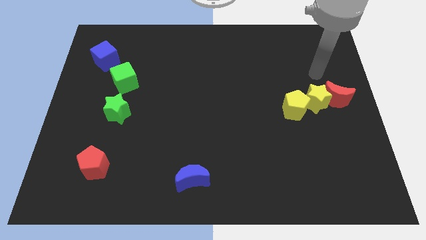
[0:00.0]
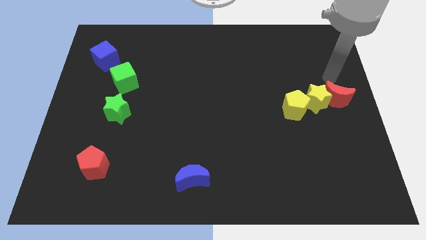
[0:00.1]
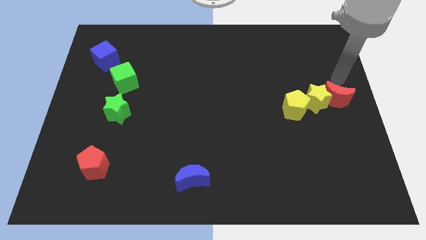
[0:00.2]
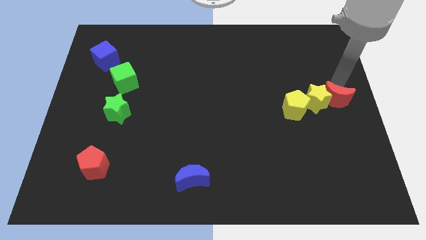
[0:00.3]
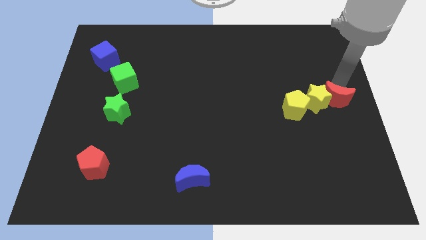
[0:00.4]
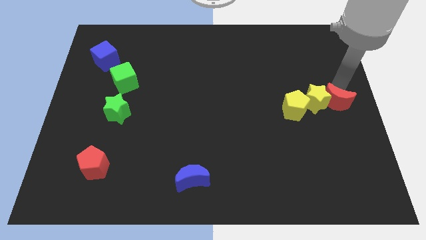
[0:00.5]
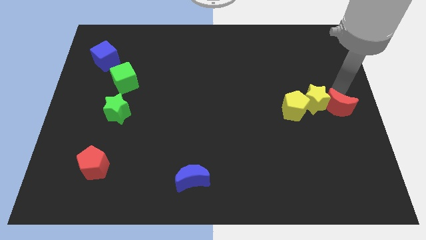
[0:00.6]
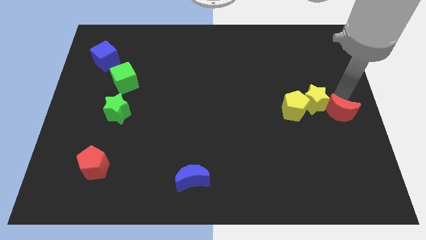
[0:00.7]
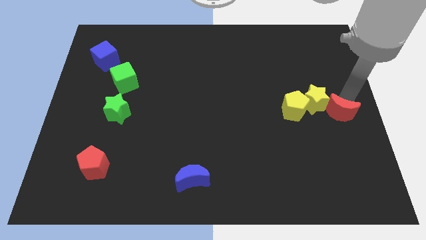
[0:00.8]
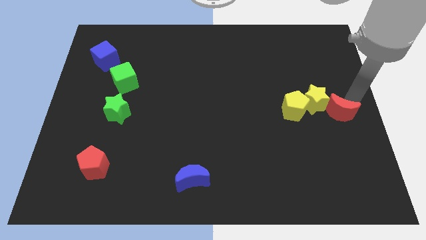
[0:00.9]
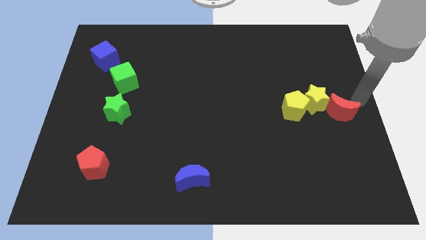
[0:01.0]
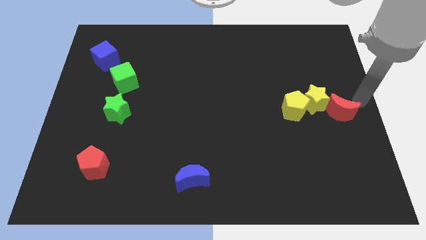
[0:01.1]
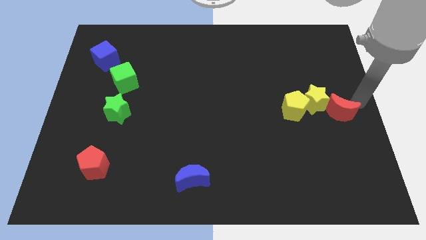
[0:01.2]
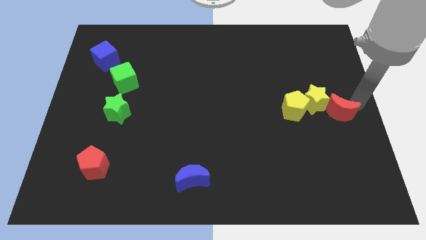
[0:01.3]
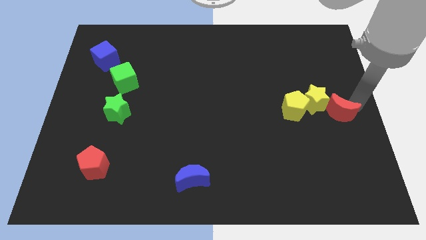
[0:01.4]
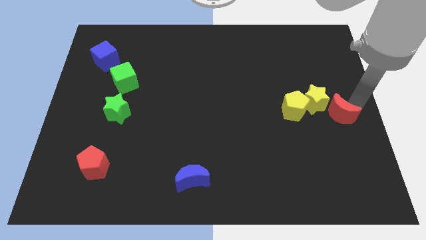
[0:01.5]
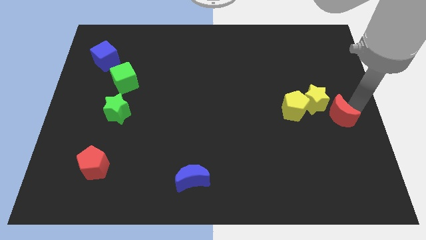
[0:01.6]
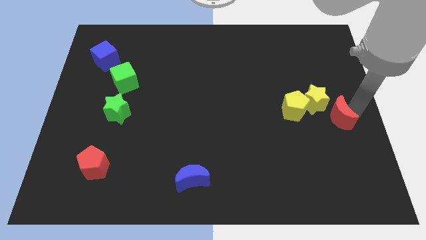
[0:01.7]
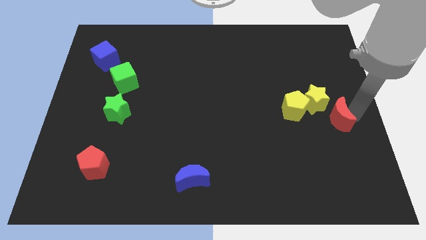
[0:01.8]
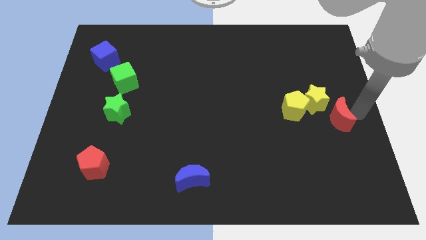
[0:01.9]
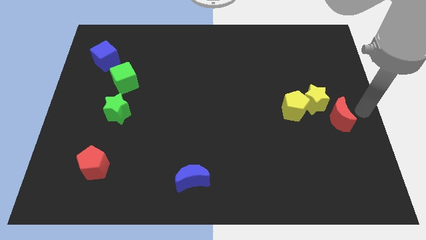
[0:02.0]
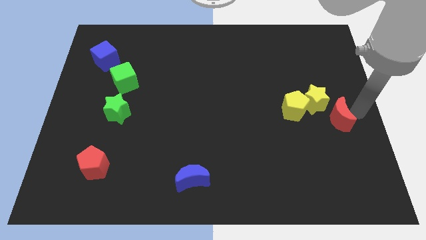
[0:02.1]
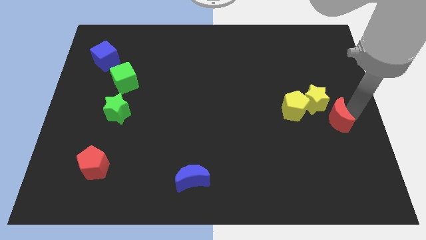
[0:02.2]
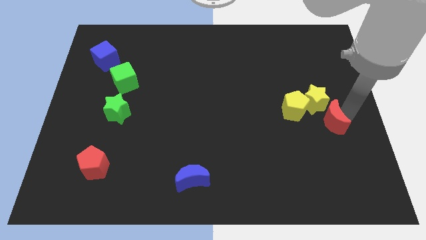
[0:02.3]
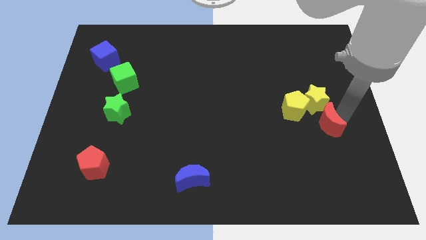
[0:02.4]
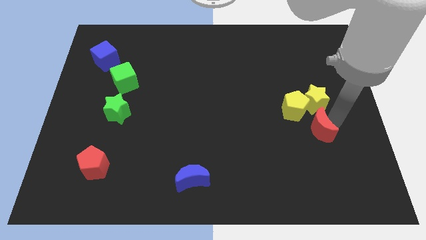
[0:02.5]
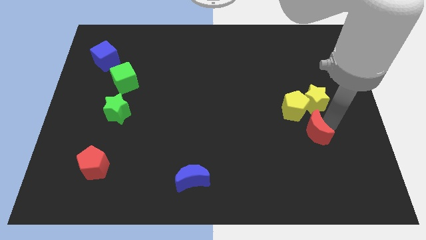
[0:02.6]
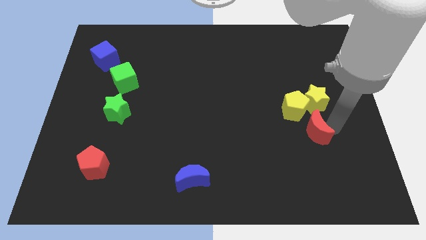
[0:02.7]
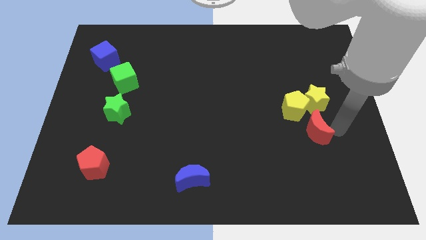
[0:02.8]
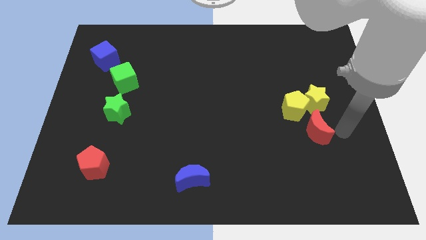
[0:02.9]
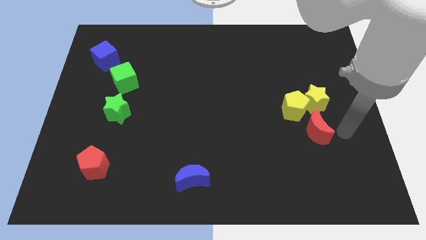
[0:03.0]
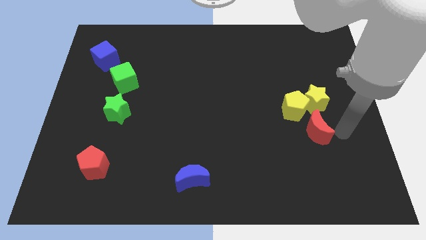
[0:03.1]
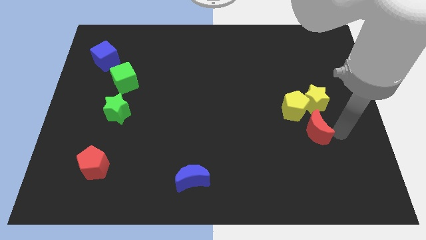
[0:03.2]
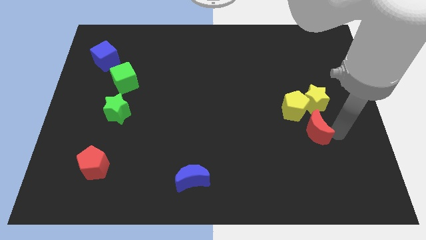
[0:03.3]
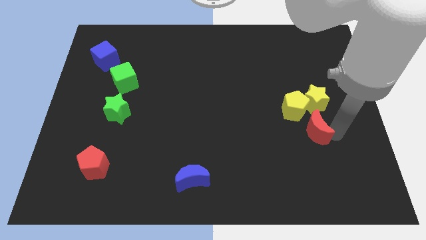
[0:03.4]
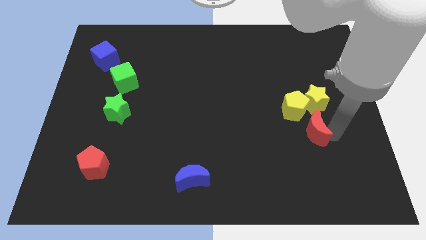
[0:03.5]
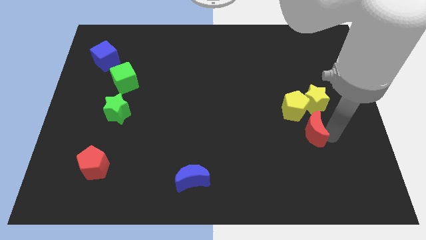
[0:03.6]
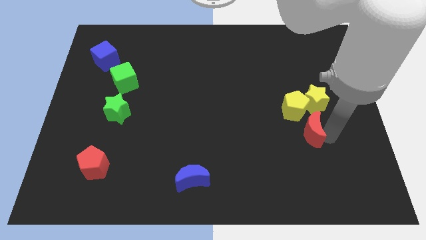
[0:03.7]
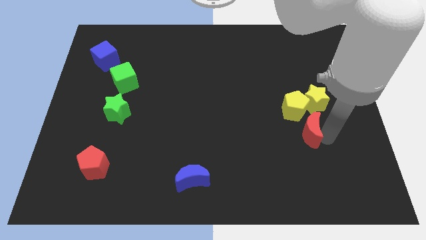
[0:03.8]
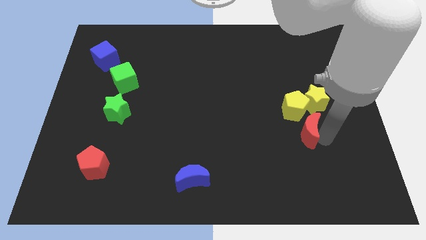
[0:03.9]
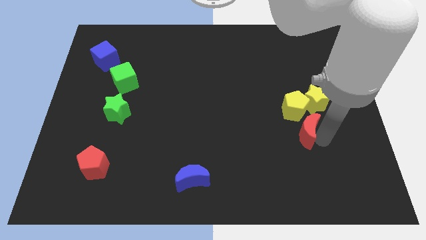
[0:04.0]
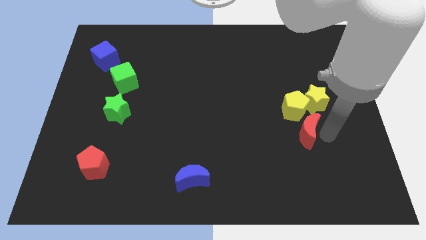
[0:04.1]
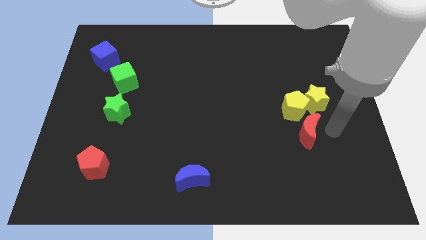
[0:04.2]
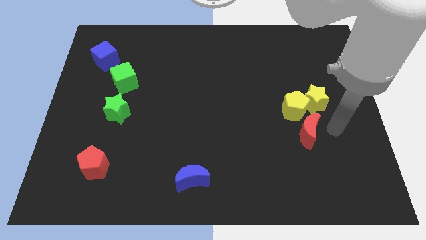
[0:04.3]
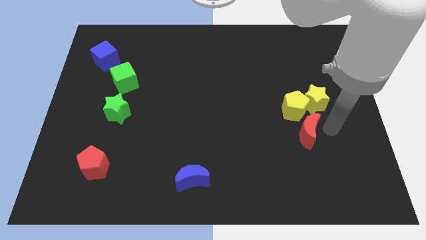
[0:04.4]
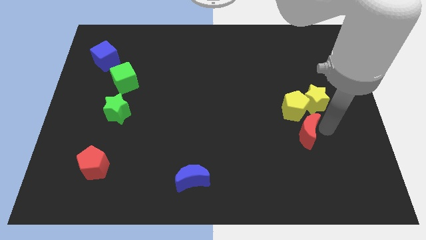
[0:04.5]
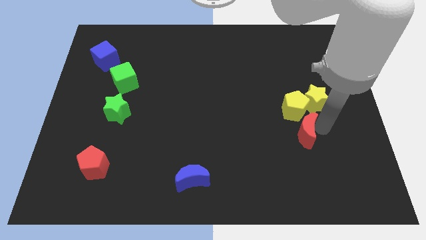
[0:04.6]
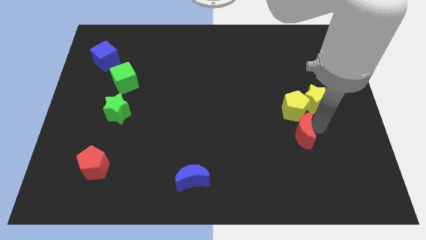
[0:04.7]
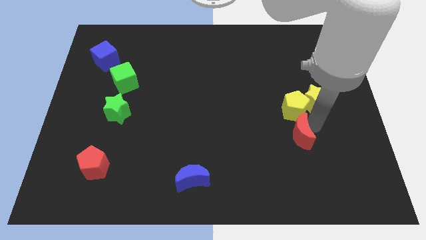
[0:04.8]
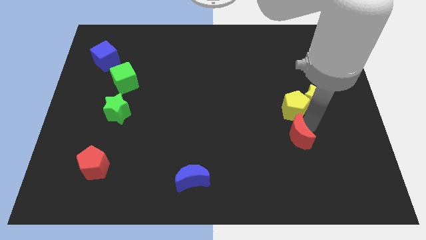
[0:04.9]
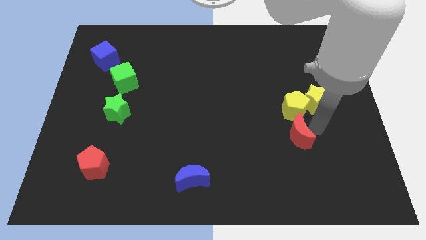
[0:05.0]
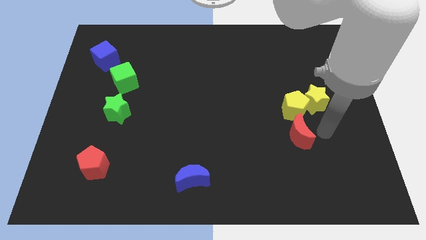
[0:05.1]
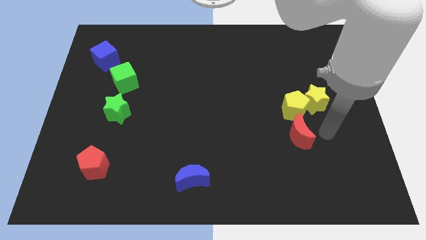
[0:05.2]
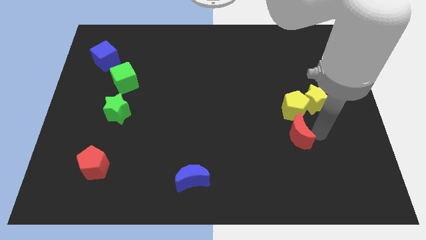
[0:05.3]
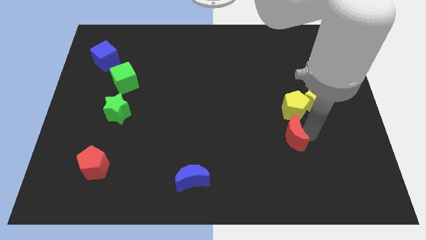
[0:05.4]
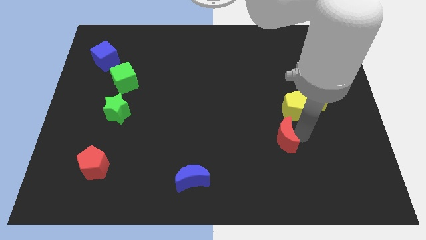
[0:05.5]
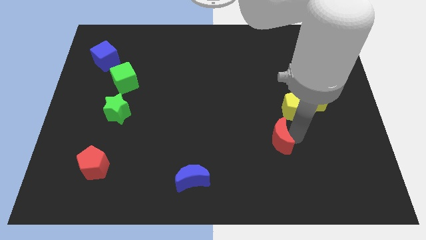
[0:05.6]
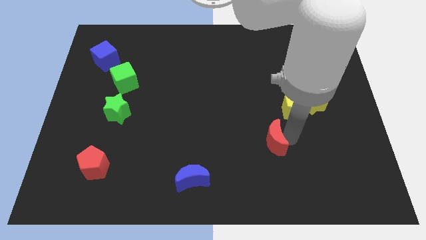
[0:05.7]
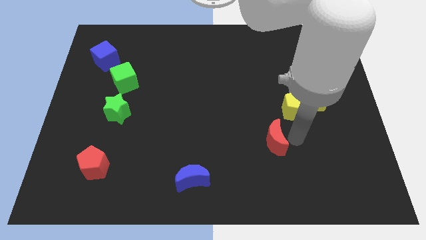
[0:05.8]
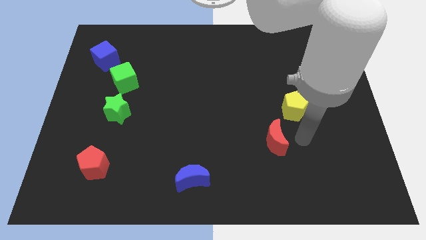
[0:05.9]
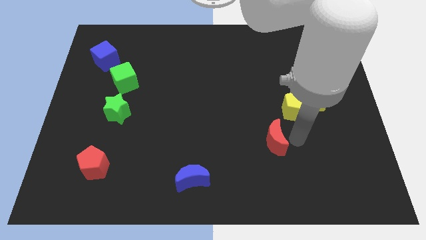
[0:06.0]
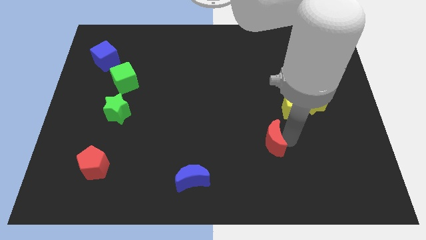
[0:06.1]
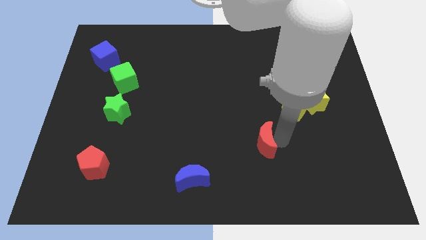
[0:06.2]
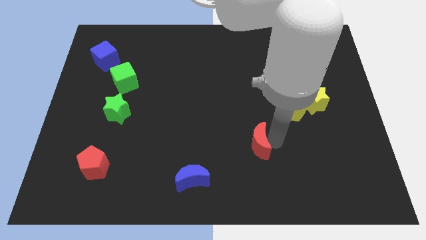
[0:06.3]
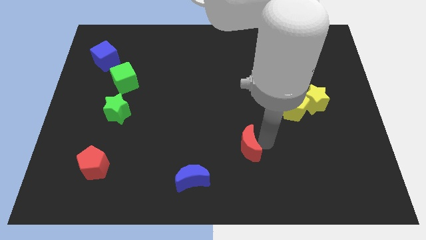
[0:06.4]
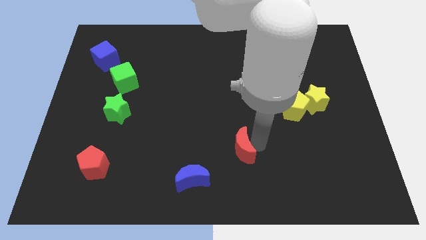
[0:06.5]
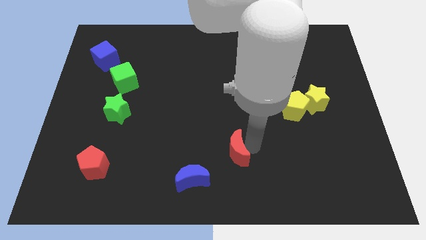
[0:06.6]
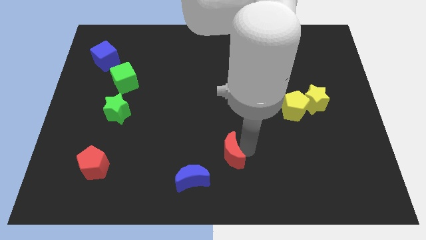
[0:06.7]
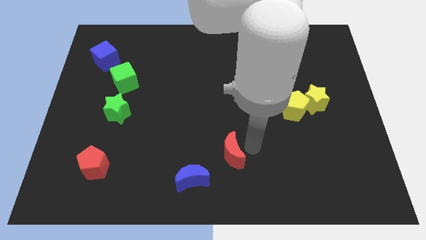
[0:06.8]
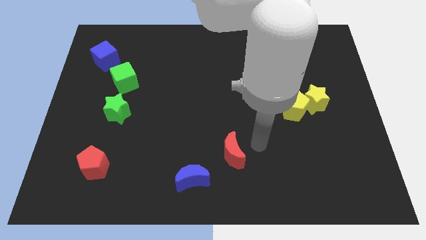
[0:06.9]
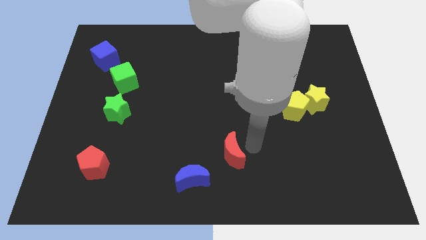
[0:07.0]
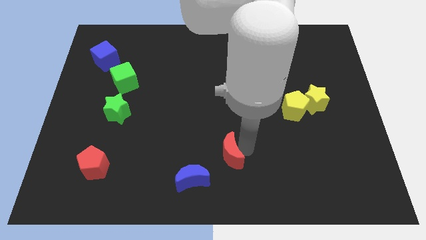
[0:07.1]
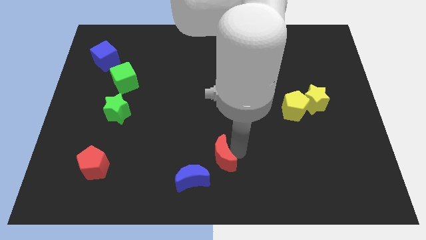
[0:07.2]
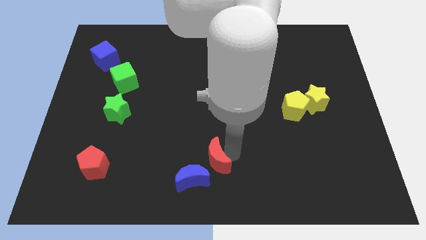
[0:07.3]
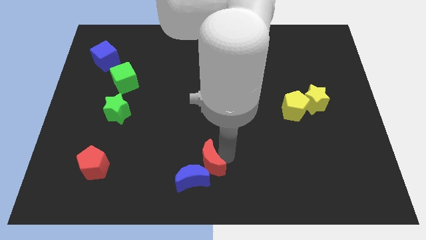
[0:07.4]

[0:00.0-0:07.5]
push the red moon close to the blue moon
